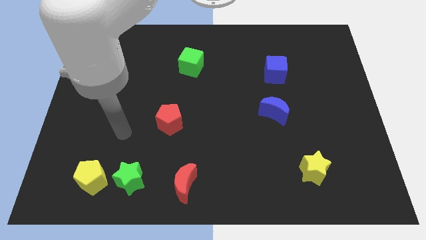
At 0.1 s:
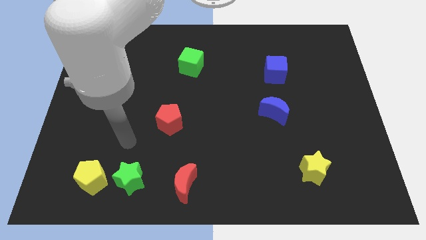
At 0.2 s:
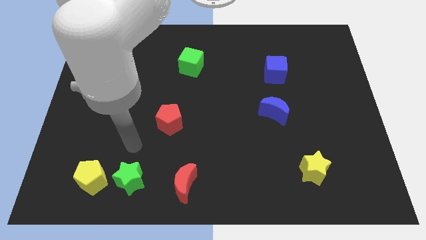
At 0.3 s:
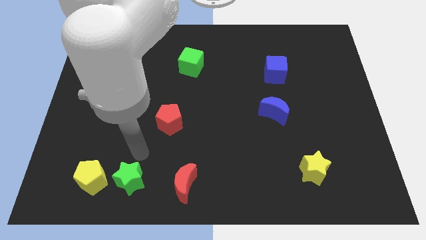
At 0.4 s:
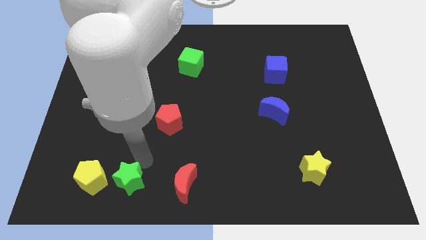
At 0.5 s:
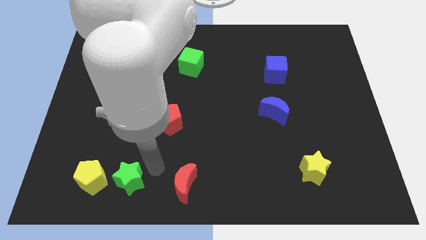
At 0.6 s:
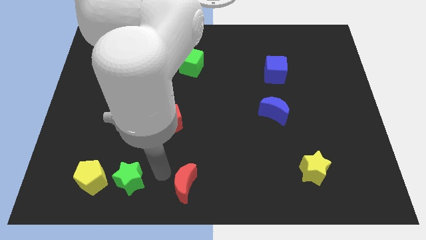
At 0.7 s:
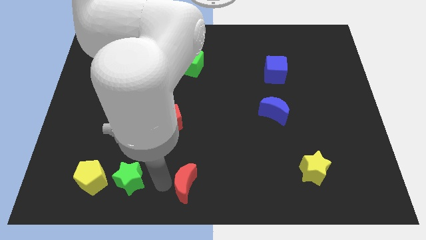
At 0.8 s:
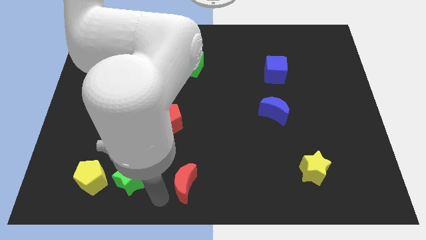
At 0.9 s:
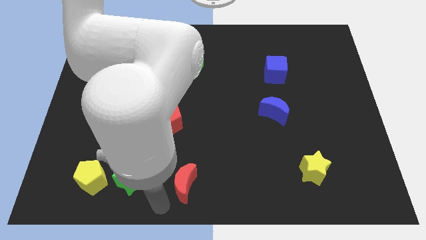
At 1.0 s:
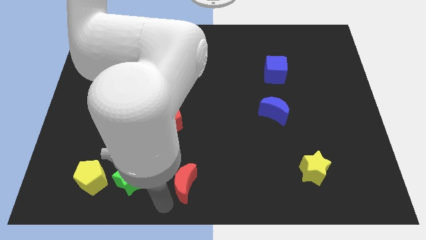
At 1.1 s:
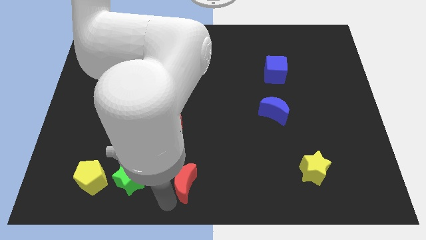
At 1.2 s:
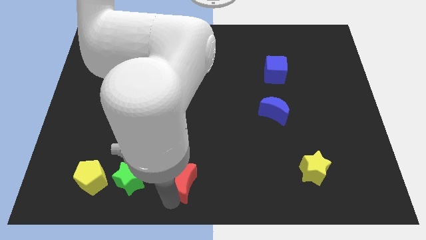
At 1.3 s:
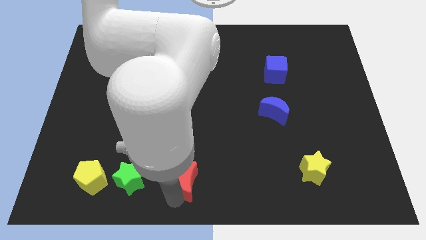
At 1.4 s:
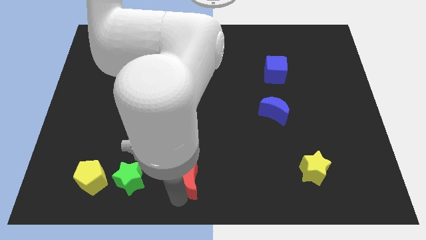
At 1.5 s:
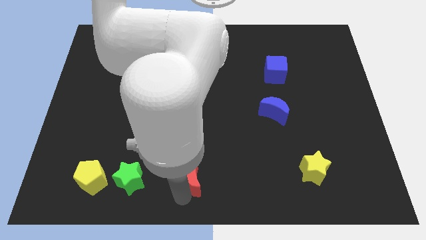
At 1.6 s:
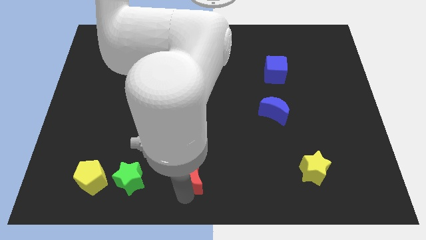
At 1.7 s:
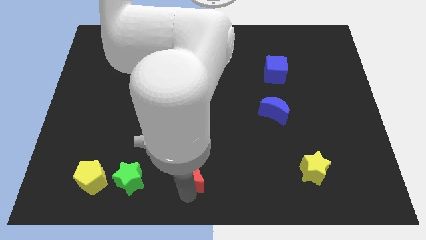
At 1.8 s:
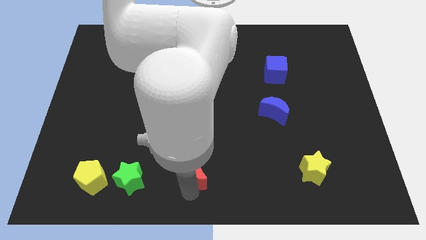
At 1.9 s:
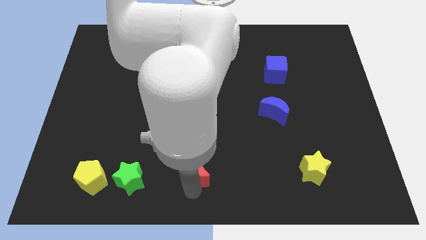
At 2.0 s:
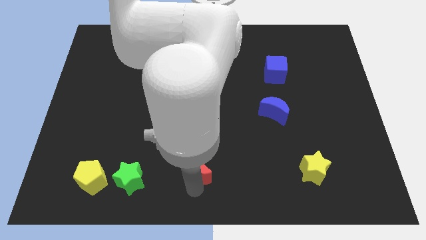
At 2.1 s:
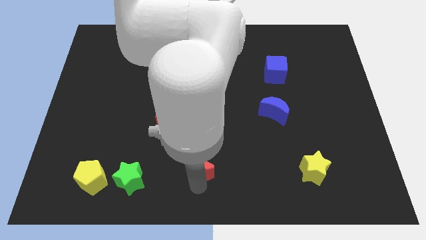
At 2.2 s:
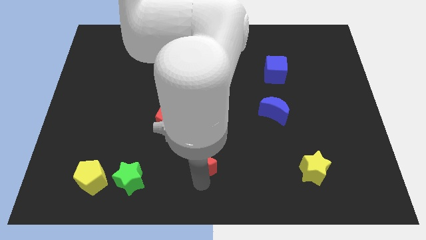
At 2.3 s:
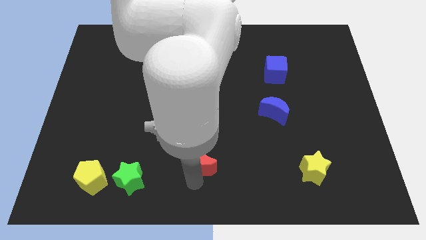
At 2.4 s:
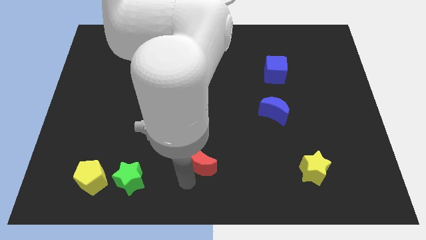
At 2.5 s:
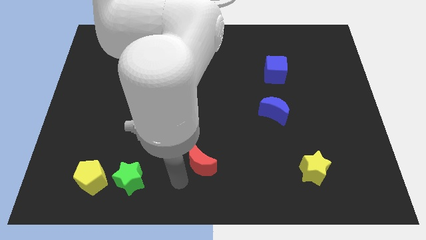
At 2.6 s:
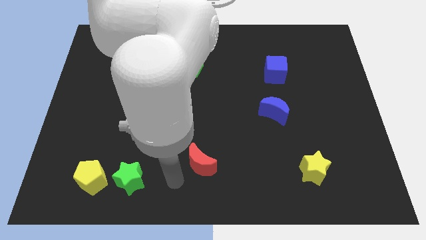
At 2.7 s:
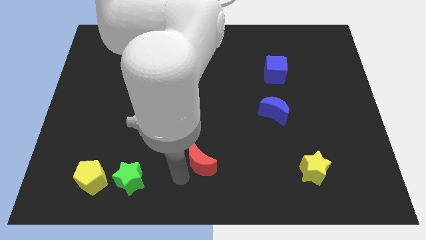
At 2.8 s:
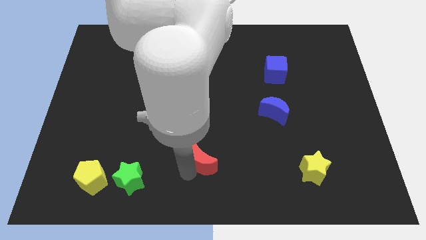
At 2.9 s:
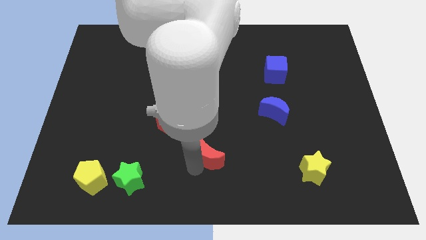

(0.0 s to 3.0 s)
slightly push the red moon up and then right

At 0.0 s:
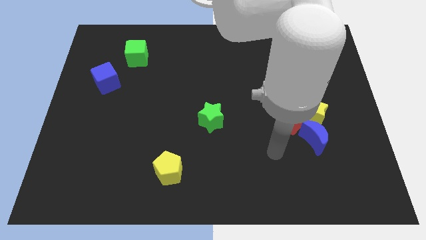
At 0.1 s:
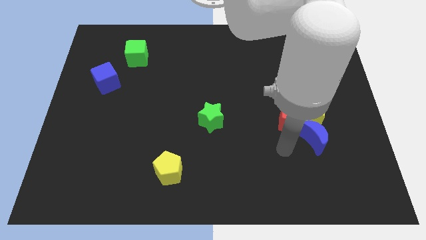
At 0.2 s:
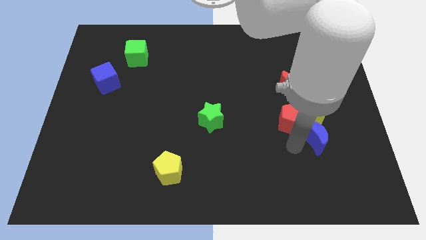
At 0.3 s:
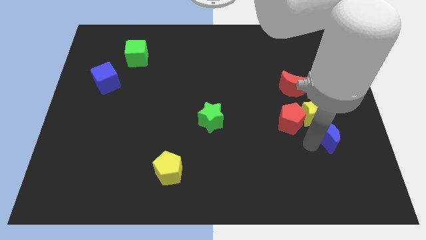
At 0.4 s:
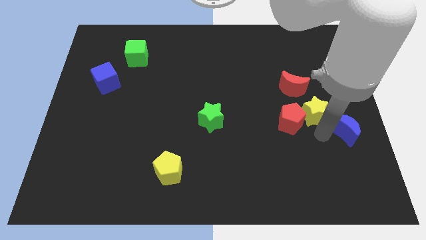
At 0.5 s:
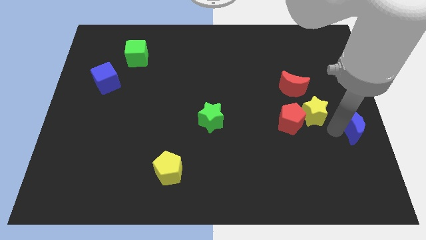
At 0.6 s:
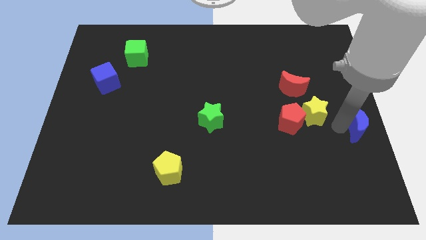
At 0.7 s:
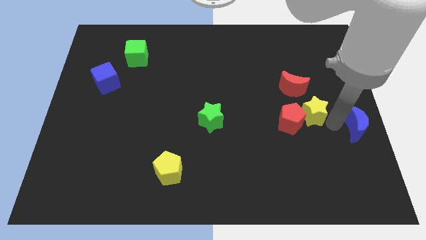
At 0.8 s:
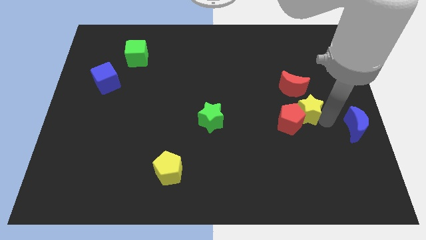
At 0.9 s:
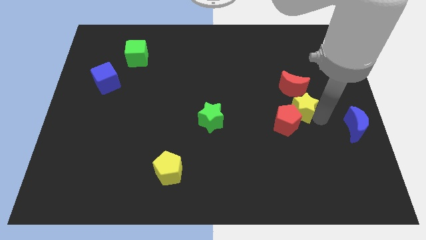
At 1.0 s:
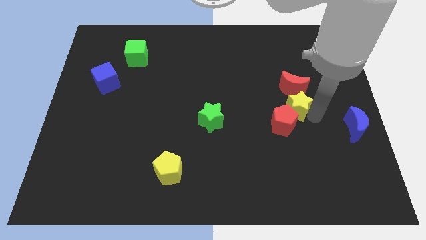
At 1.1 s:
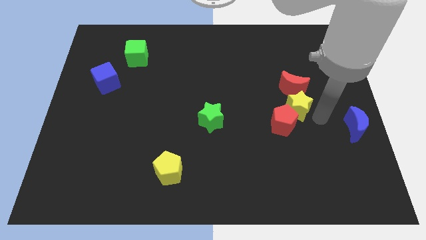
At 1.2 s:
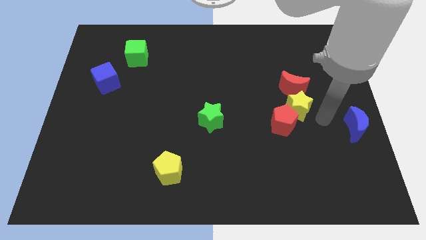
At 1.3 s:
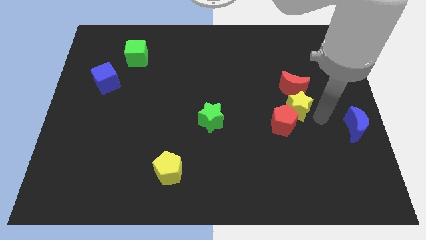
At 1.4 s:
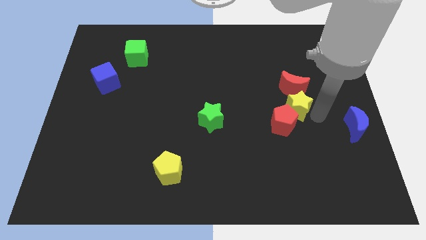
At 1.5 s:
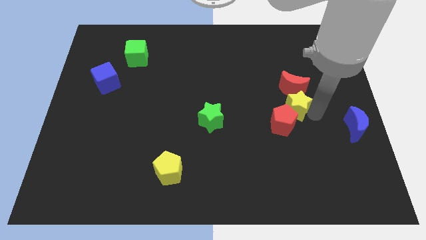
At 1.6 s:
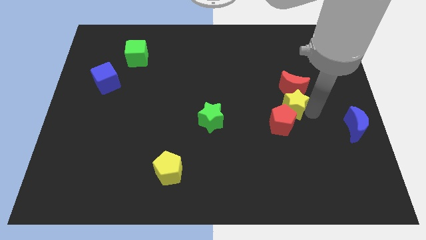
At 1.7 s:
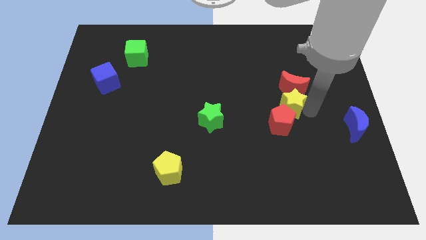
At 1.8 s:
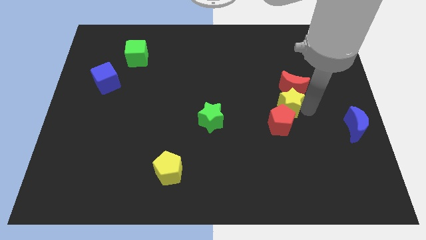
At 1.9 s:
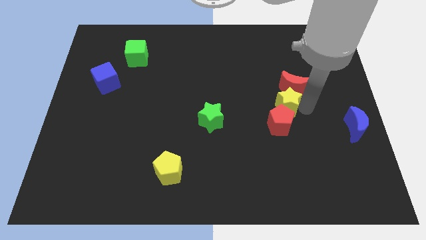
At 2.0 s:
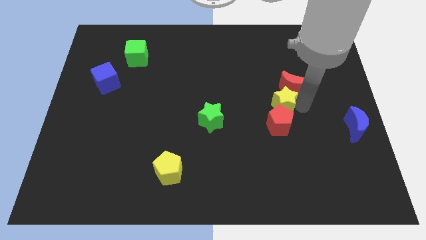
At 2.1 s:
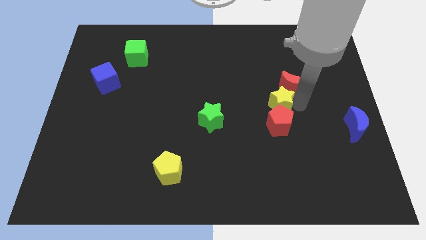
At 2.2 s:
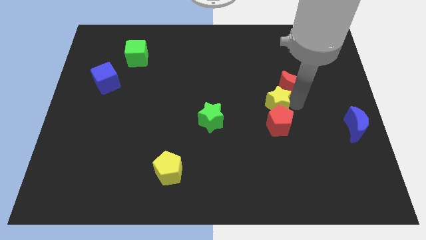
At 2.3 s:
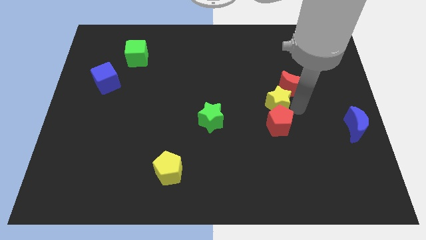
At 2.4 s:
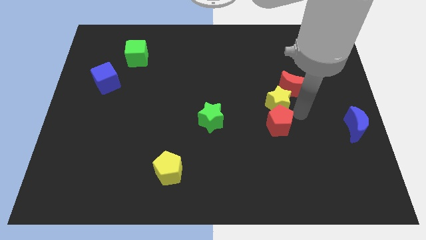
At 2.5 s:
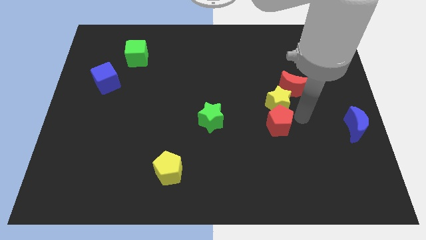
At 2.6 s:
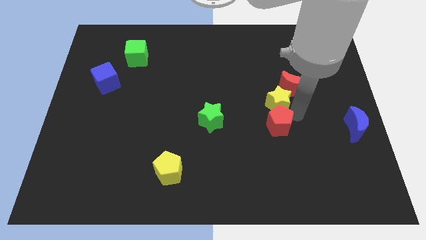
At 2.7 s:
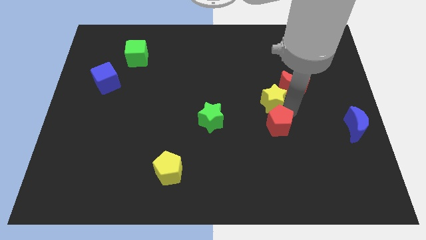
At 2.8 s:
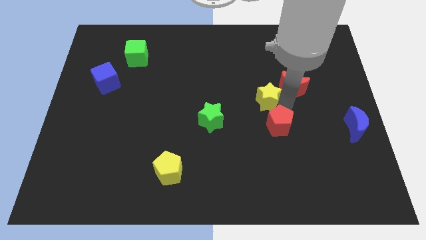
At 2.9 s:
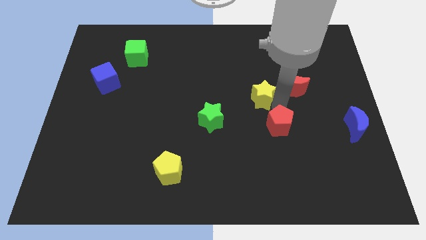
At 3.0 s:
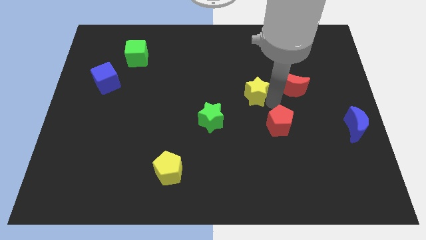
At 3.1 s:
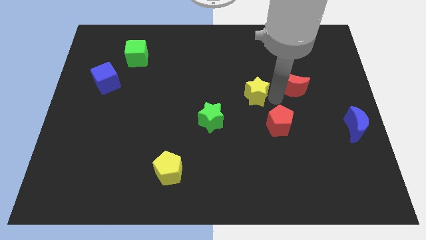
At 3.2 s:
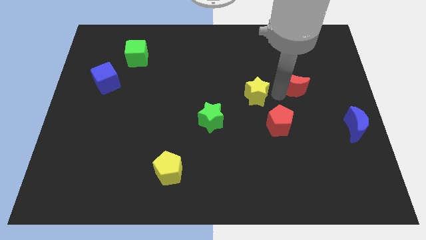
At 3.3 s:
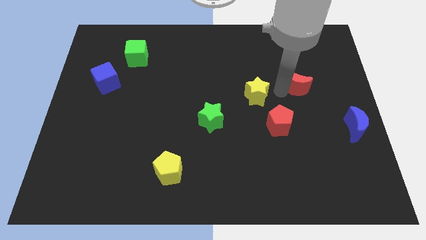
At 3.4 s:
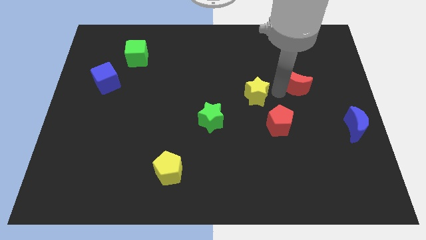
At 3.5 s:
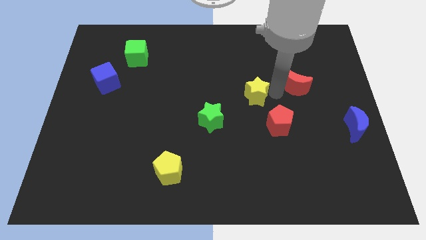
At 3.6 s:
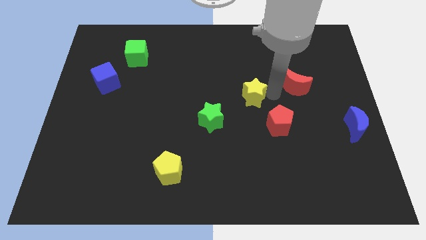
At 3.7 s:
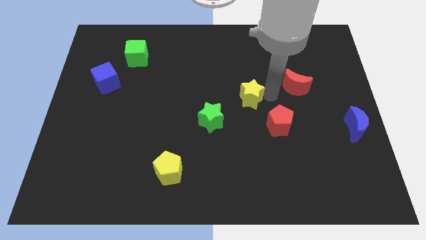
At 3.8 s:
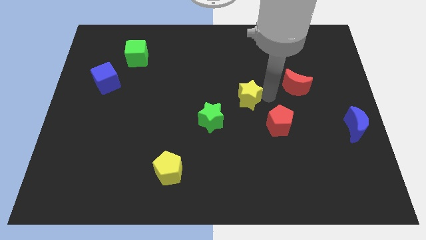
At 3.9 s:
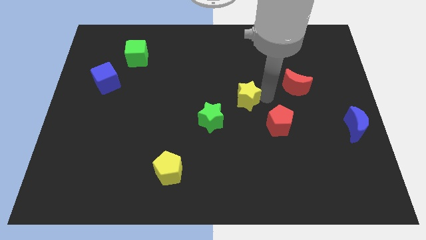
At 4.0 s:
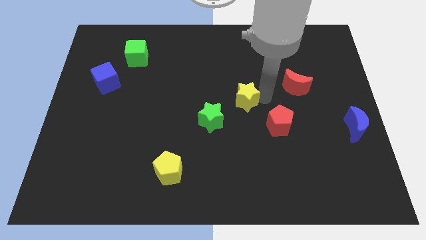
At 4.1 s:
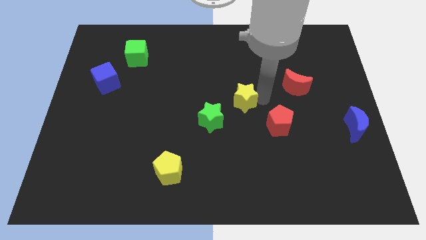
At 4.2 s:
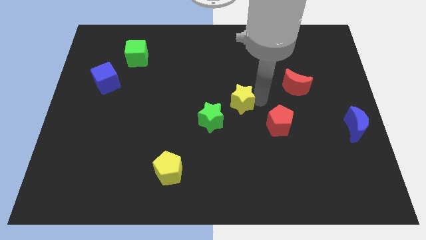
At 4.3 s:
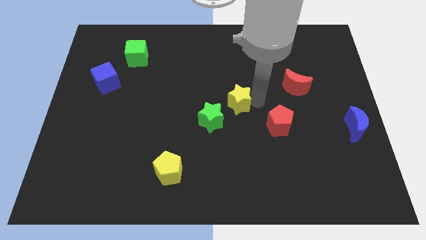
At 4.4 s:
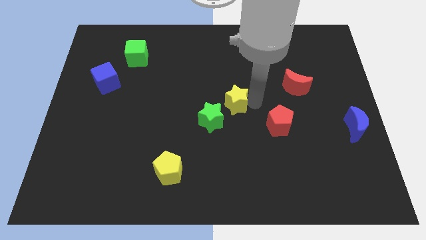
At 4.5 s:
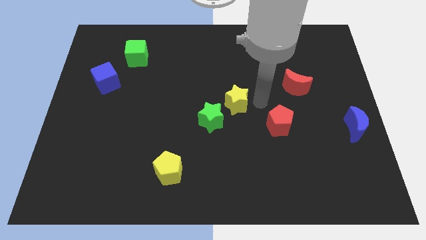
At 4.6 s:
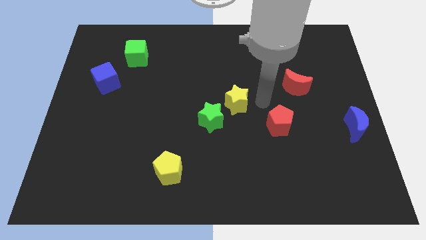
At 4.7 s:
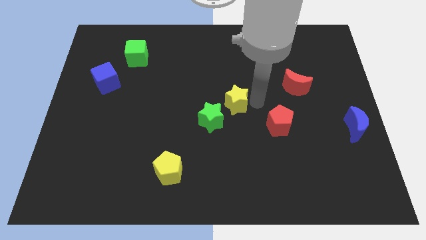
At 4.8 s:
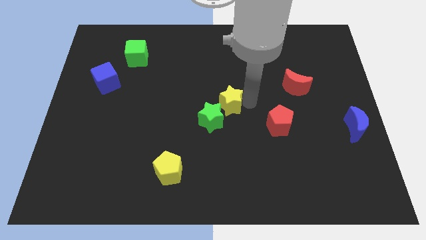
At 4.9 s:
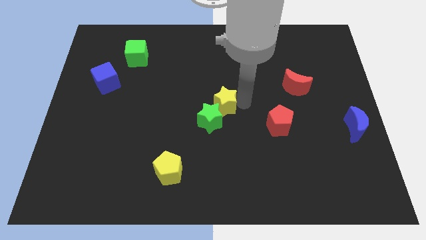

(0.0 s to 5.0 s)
push the yellow star left
